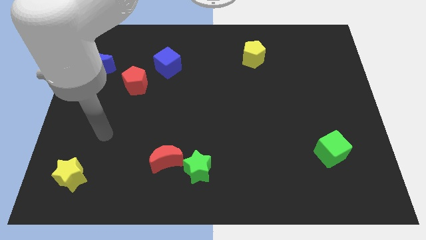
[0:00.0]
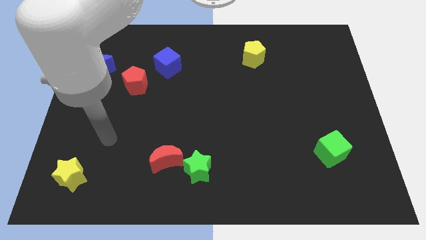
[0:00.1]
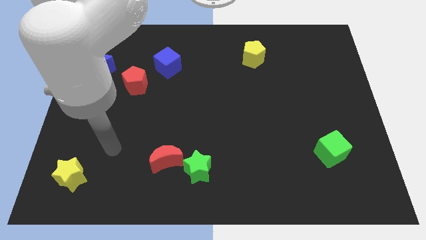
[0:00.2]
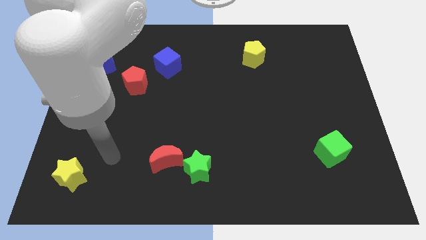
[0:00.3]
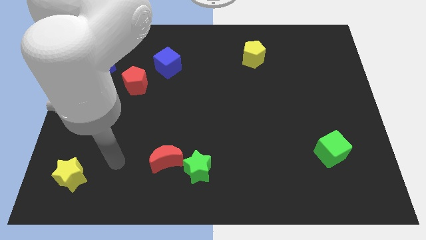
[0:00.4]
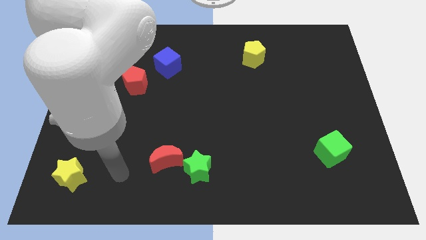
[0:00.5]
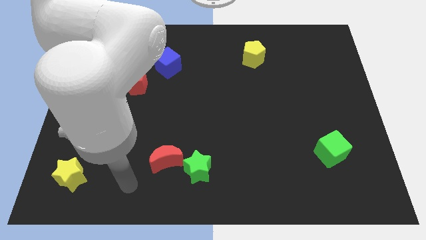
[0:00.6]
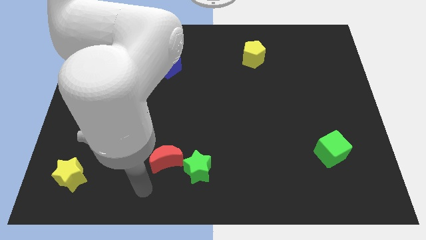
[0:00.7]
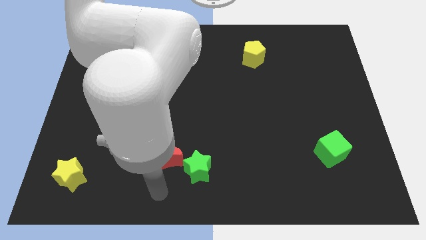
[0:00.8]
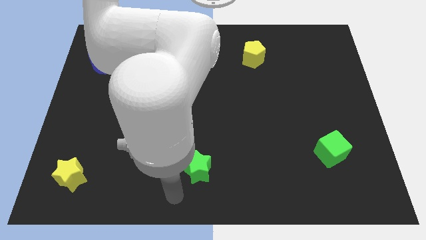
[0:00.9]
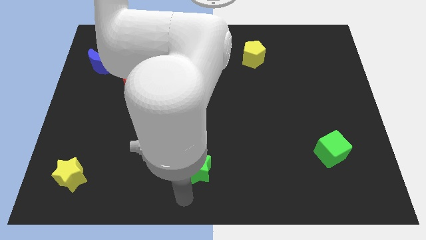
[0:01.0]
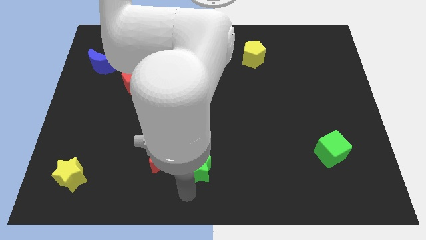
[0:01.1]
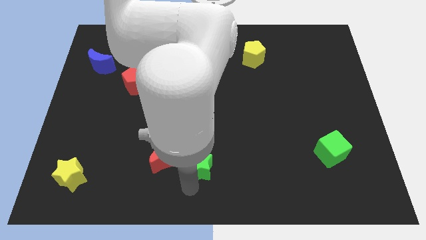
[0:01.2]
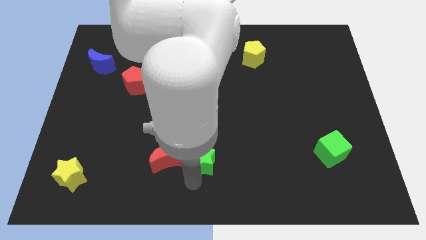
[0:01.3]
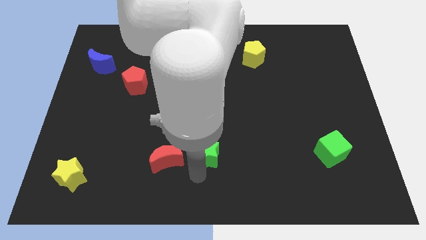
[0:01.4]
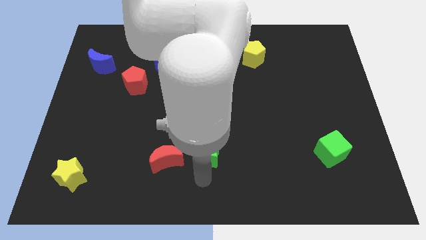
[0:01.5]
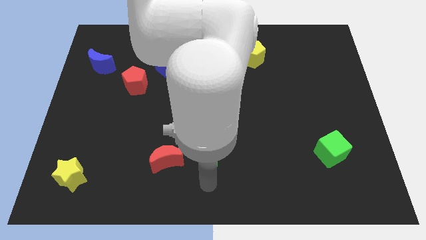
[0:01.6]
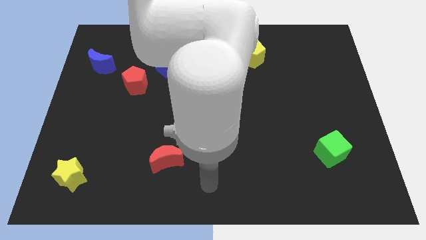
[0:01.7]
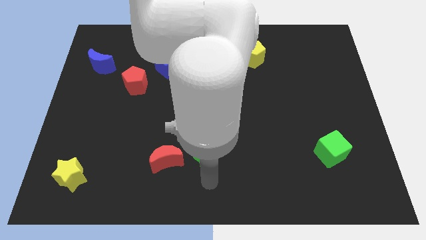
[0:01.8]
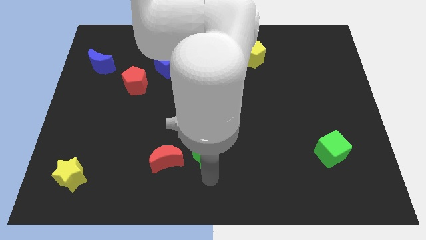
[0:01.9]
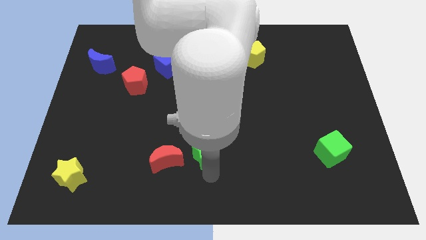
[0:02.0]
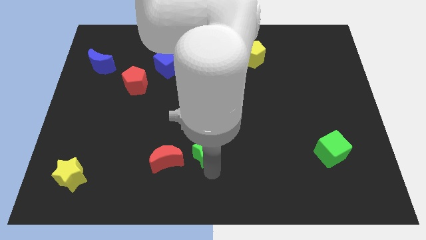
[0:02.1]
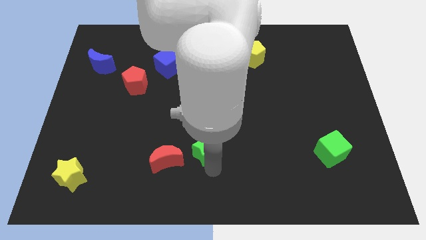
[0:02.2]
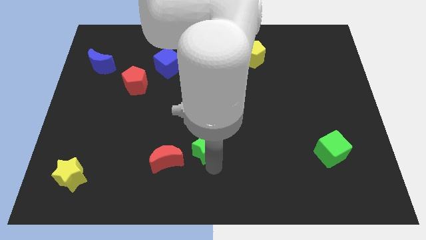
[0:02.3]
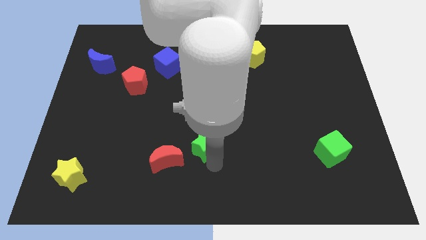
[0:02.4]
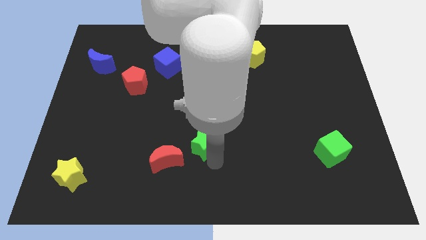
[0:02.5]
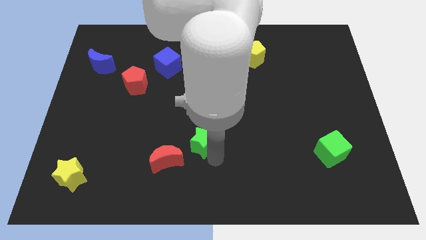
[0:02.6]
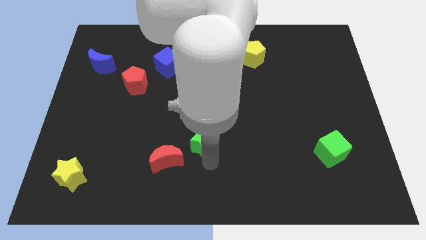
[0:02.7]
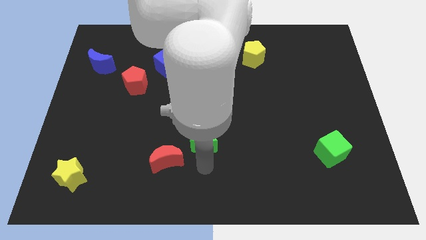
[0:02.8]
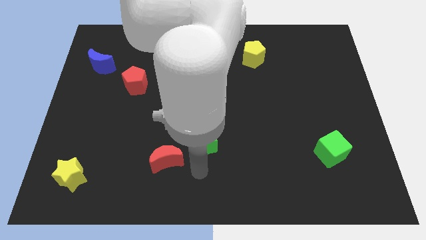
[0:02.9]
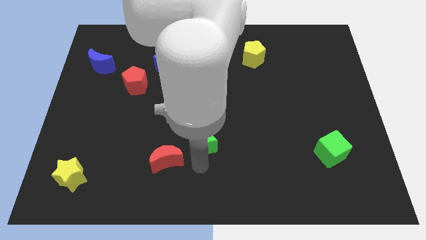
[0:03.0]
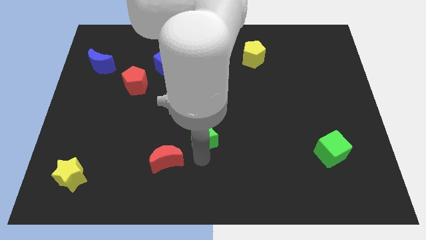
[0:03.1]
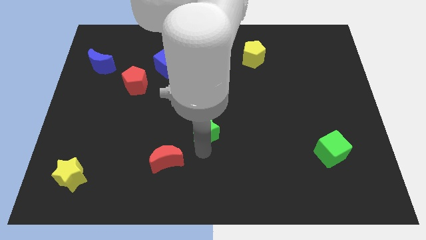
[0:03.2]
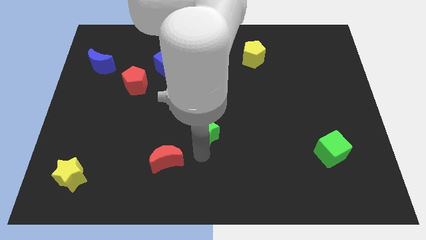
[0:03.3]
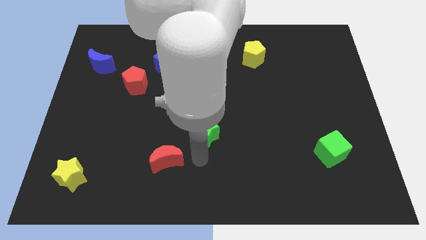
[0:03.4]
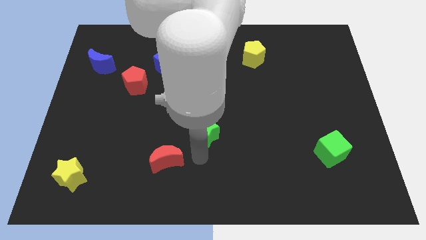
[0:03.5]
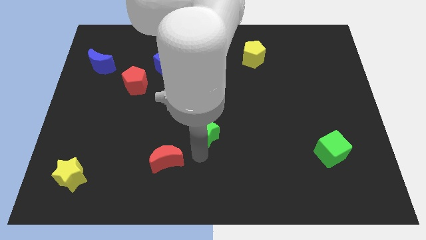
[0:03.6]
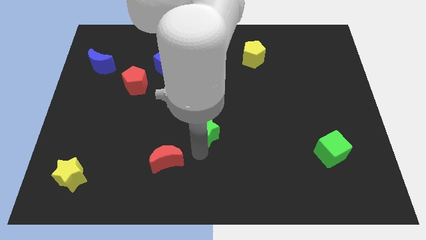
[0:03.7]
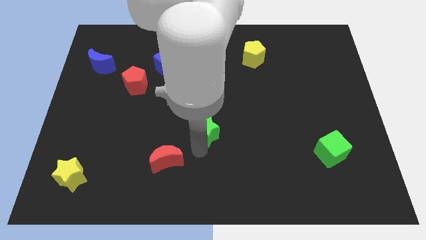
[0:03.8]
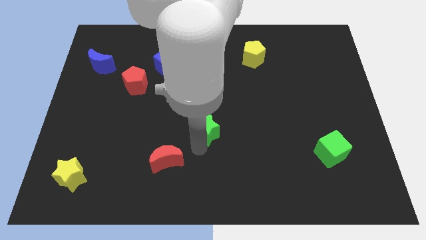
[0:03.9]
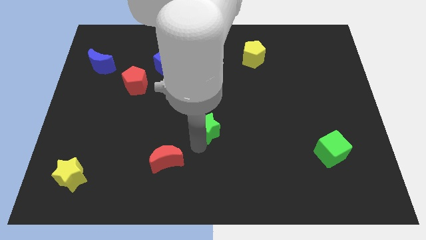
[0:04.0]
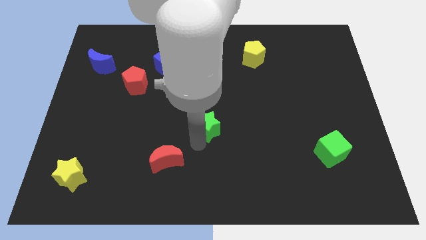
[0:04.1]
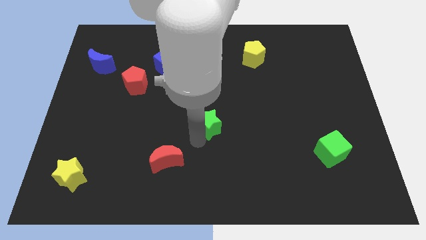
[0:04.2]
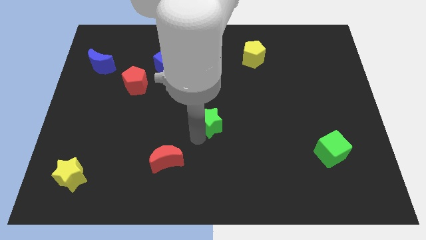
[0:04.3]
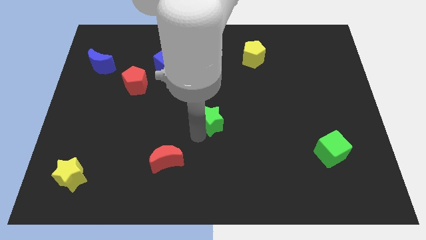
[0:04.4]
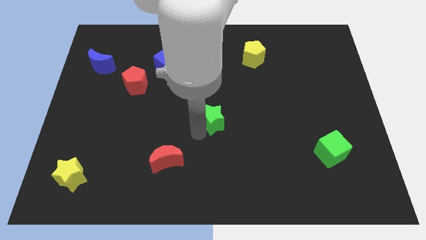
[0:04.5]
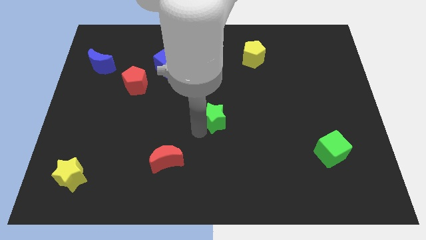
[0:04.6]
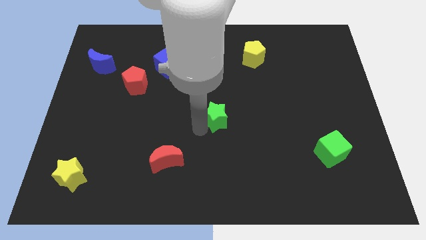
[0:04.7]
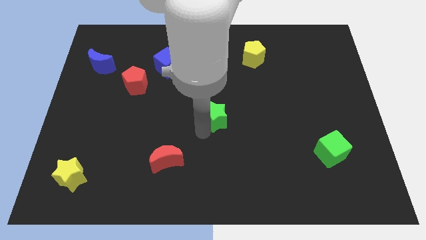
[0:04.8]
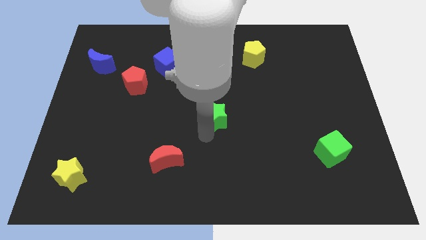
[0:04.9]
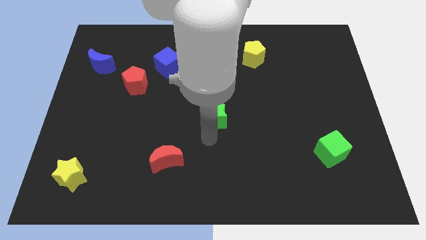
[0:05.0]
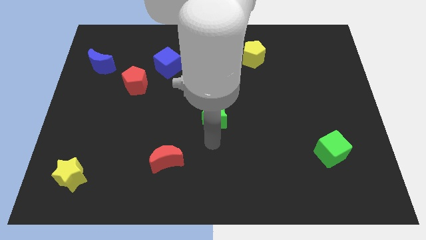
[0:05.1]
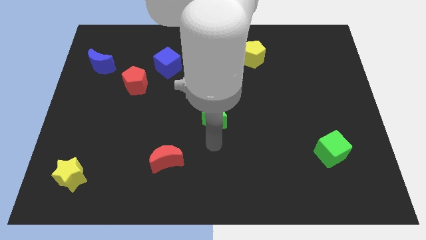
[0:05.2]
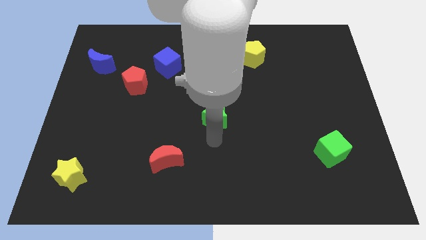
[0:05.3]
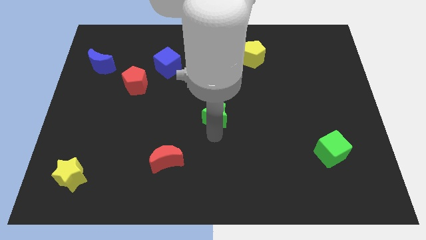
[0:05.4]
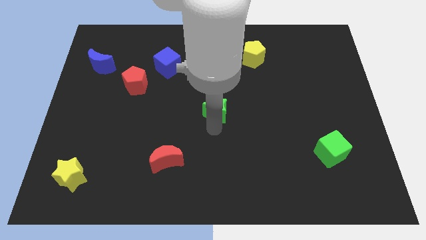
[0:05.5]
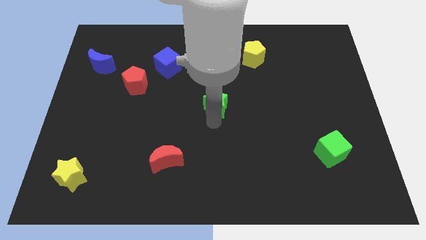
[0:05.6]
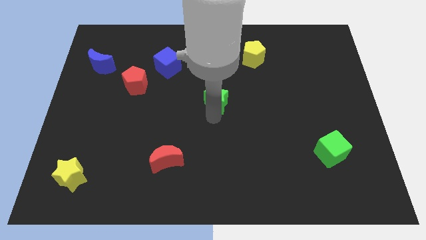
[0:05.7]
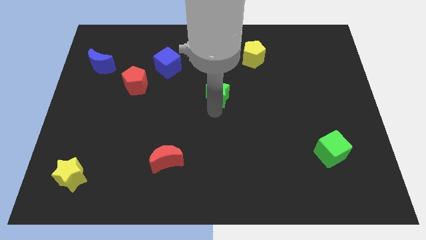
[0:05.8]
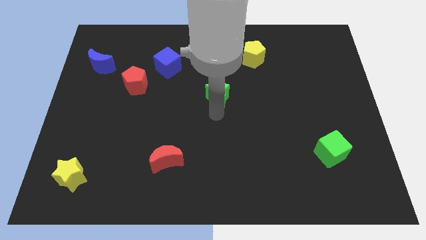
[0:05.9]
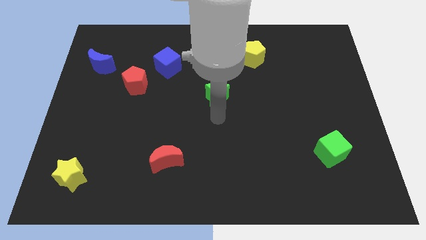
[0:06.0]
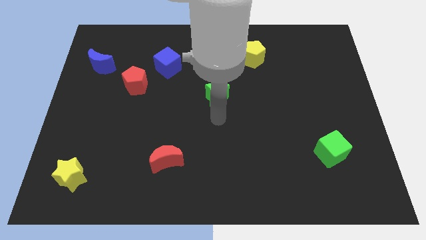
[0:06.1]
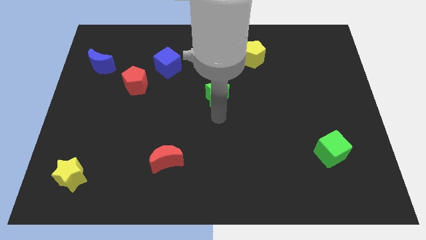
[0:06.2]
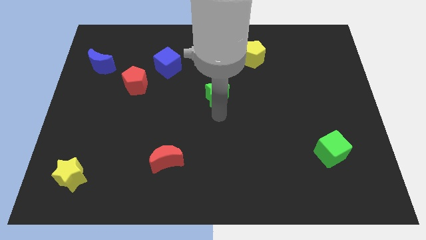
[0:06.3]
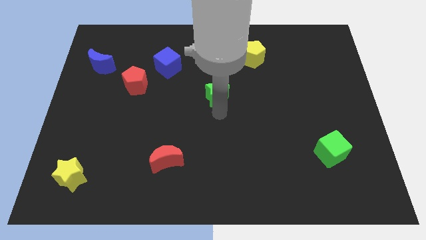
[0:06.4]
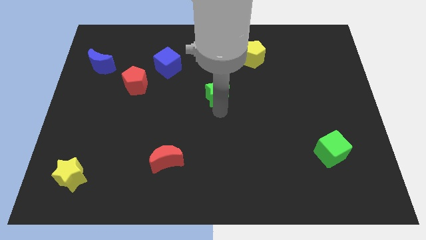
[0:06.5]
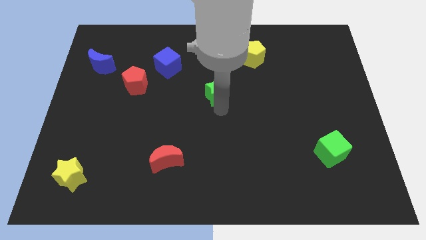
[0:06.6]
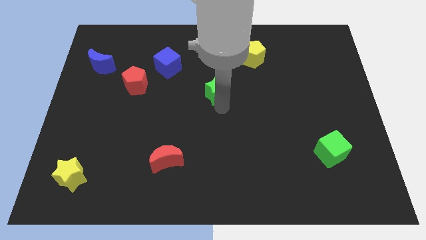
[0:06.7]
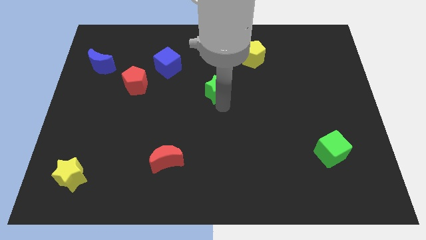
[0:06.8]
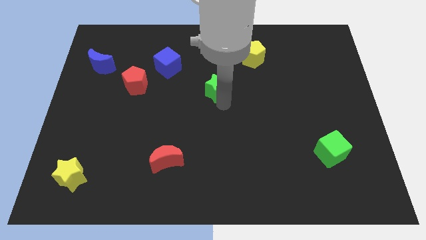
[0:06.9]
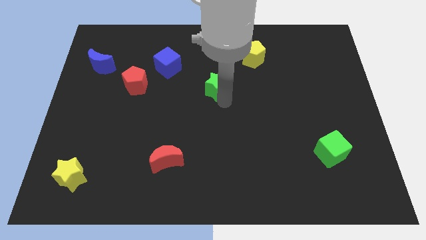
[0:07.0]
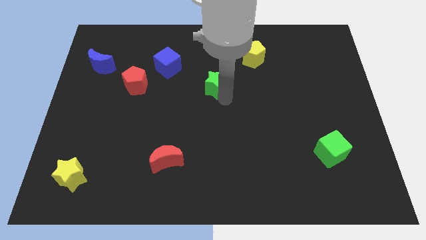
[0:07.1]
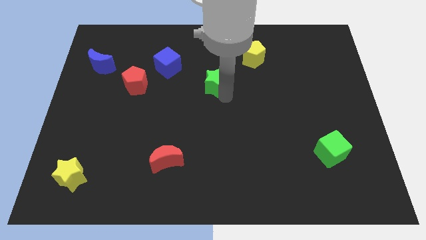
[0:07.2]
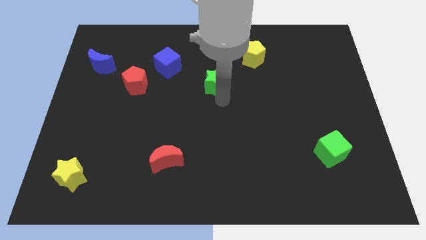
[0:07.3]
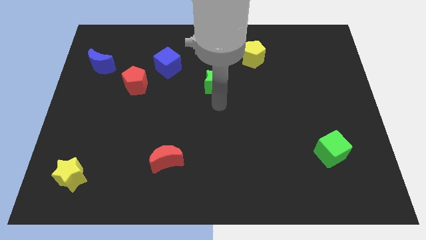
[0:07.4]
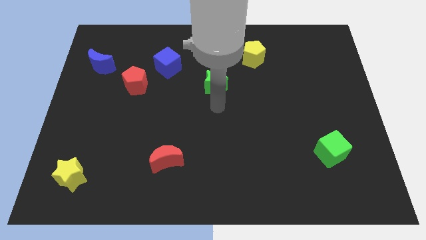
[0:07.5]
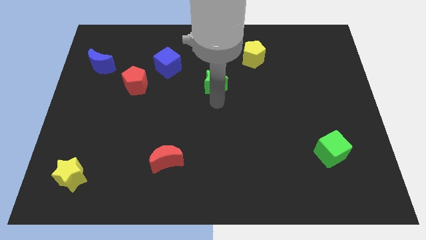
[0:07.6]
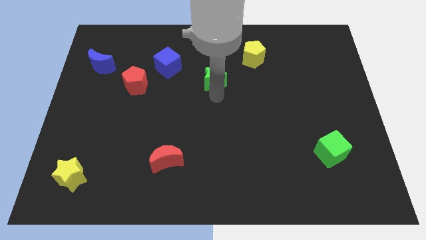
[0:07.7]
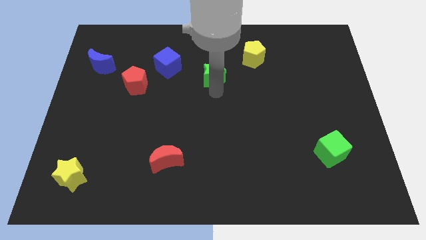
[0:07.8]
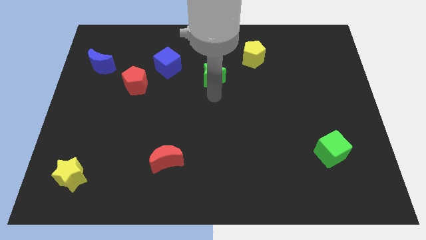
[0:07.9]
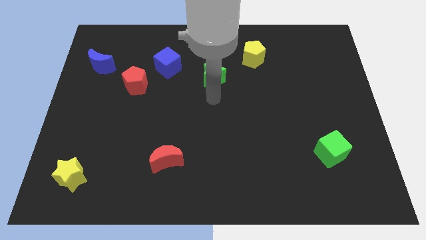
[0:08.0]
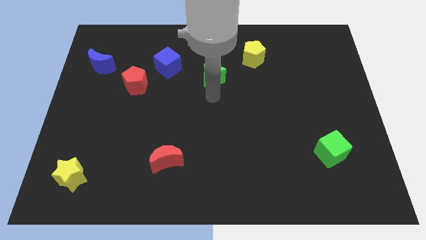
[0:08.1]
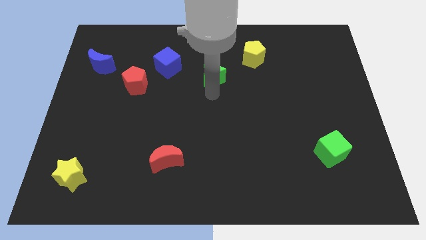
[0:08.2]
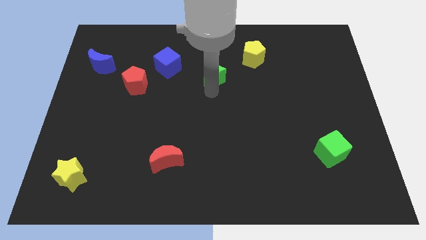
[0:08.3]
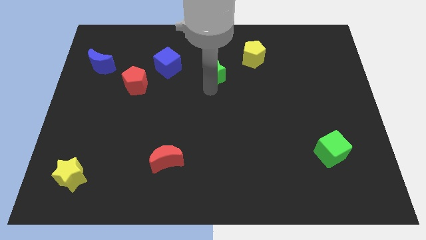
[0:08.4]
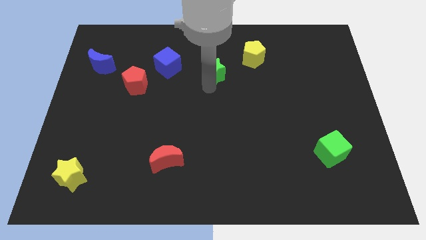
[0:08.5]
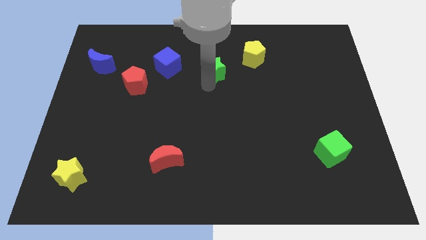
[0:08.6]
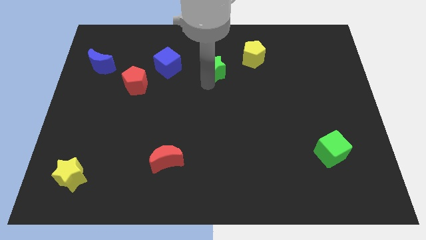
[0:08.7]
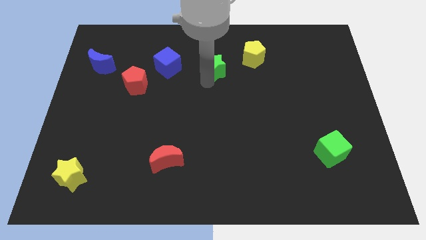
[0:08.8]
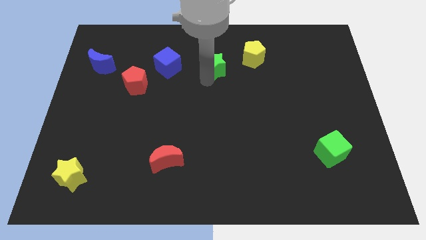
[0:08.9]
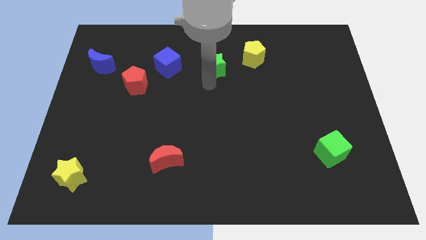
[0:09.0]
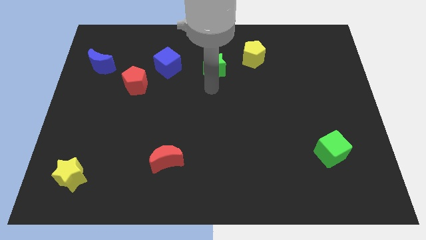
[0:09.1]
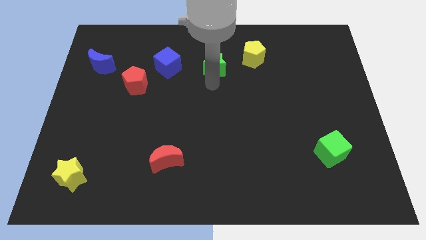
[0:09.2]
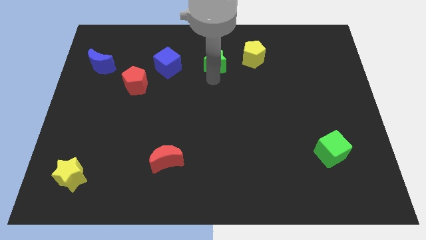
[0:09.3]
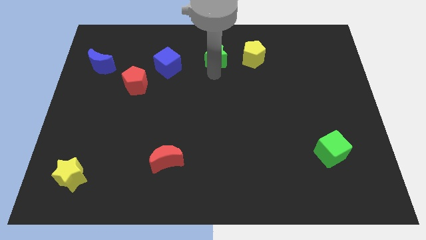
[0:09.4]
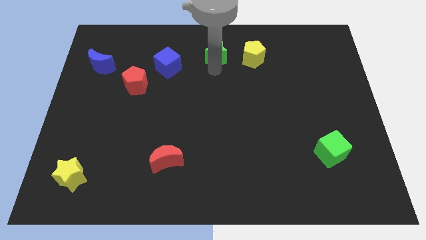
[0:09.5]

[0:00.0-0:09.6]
move the green star to the towards your base
